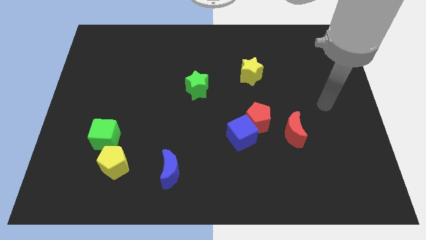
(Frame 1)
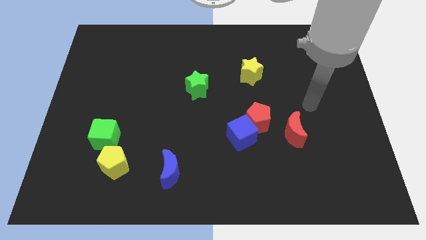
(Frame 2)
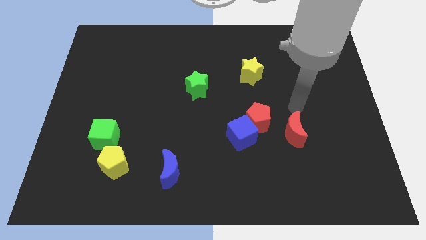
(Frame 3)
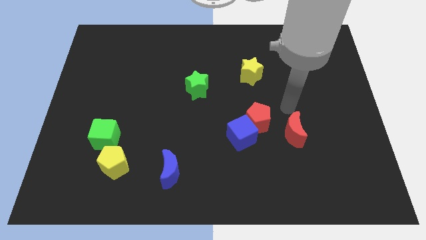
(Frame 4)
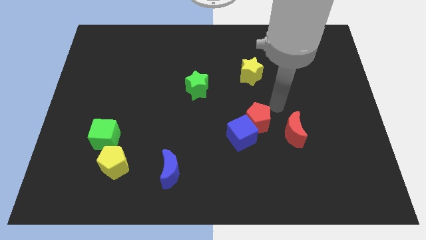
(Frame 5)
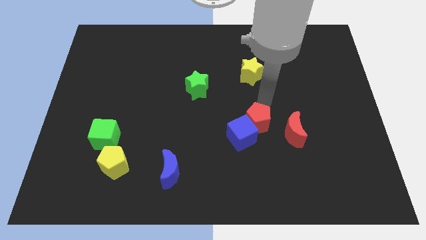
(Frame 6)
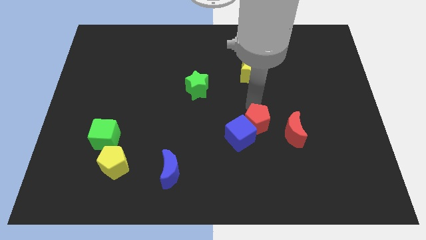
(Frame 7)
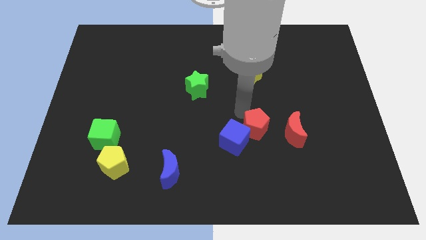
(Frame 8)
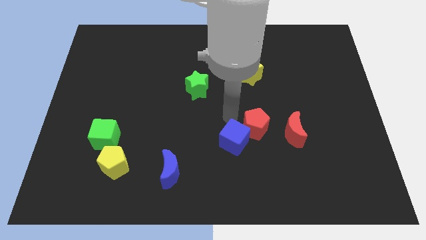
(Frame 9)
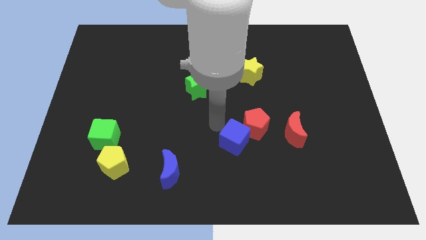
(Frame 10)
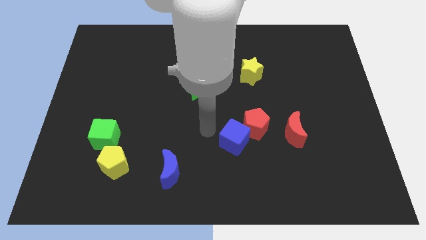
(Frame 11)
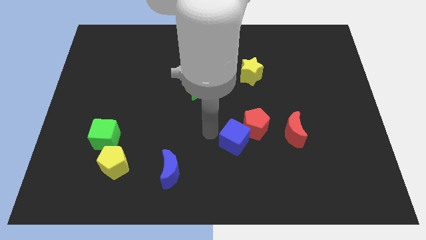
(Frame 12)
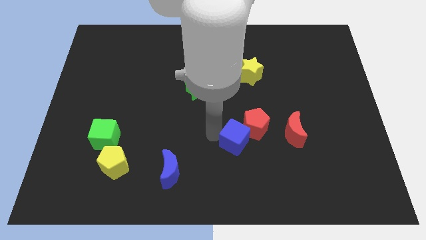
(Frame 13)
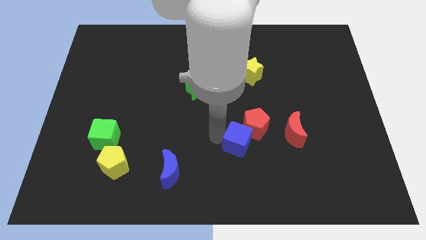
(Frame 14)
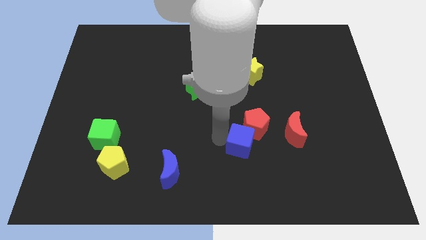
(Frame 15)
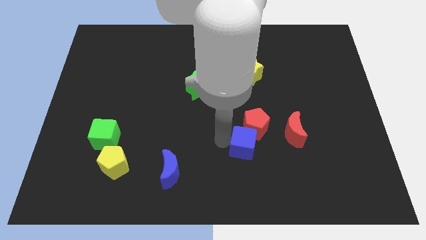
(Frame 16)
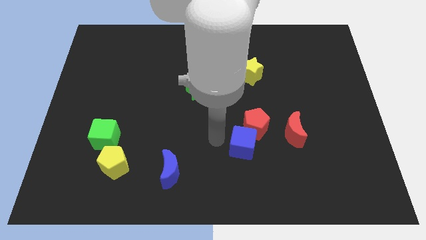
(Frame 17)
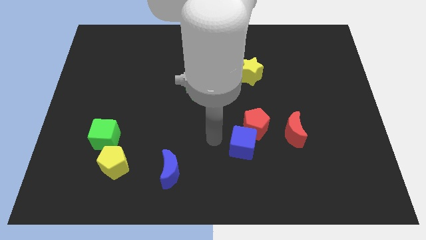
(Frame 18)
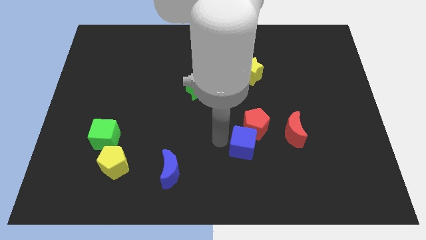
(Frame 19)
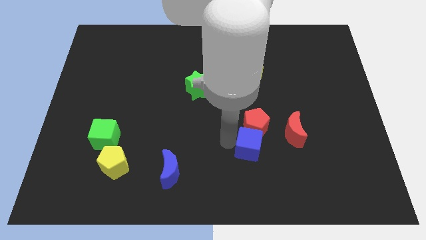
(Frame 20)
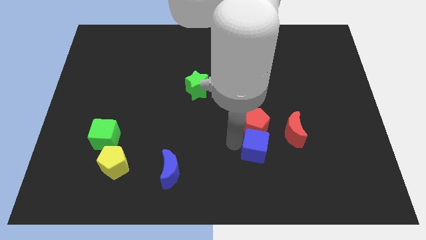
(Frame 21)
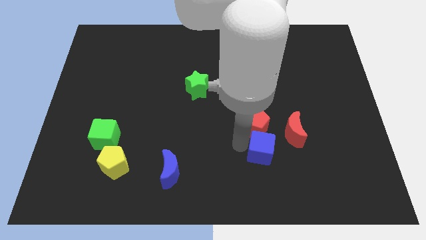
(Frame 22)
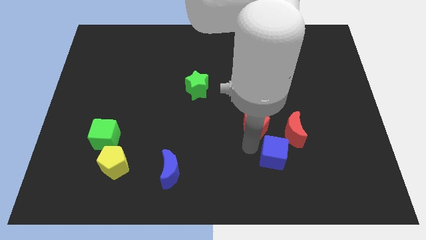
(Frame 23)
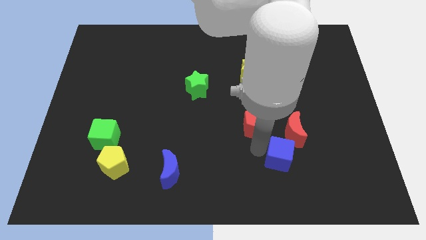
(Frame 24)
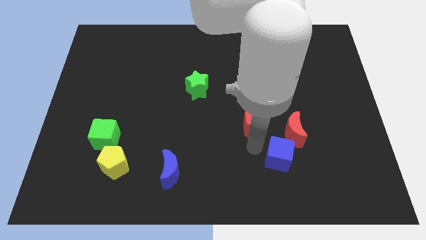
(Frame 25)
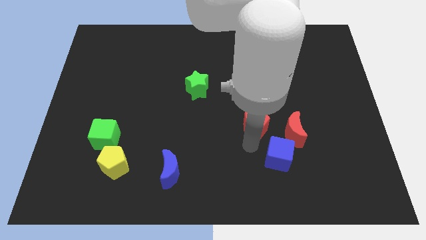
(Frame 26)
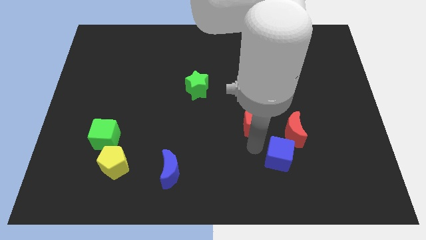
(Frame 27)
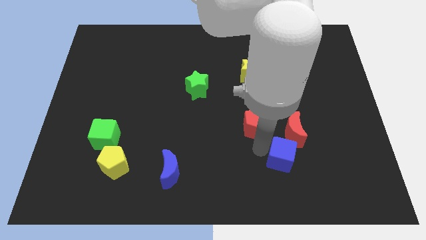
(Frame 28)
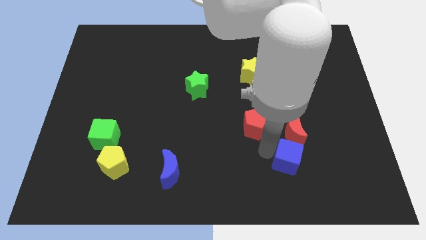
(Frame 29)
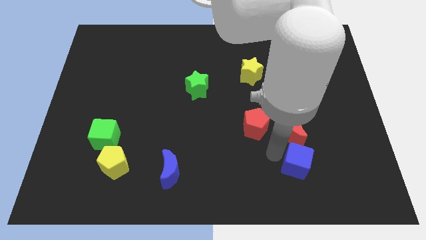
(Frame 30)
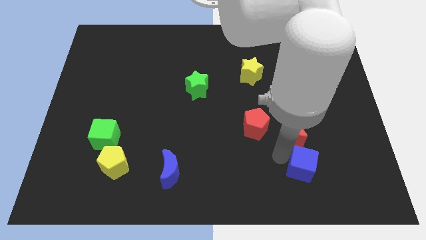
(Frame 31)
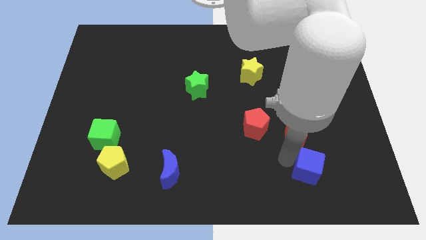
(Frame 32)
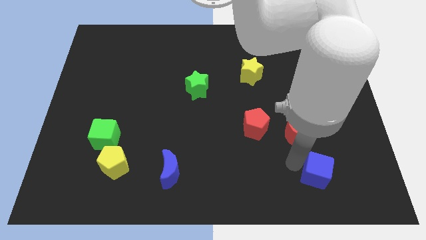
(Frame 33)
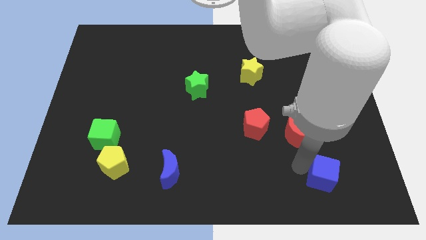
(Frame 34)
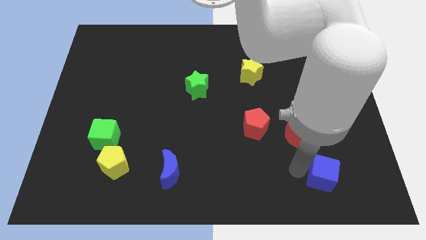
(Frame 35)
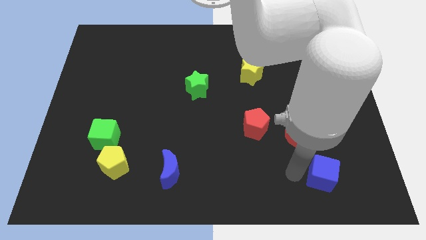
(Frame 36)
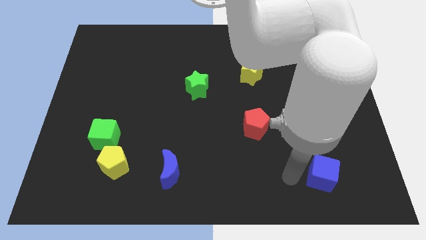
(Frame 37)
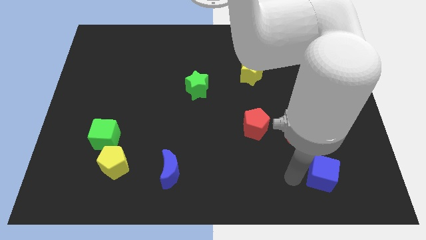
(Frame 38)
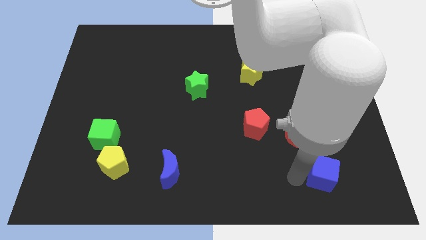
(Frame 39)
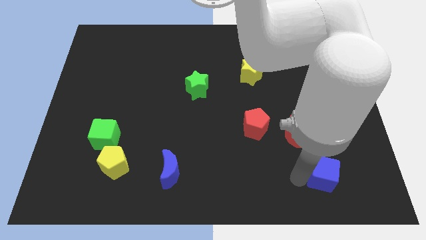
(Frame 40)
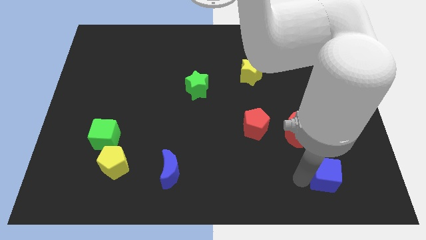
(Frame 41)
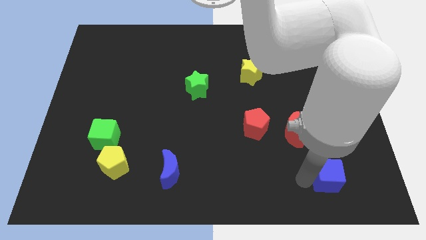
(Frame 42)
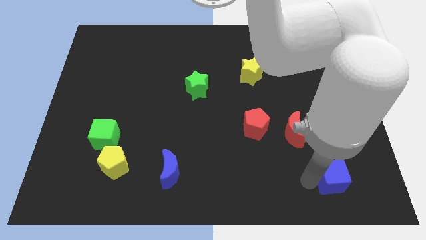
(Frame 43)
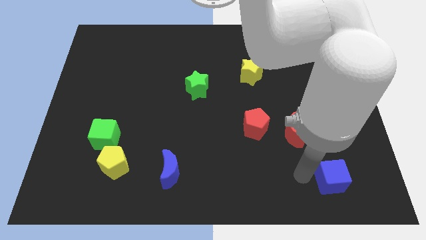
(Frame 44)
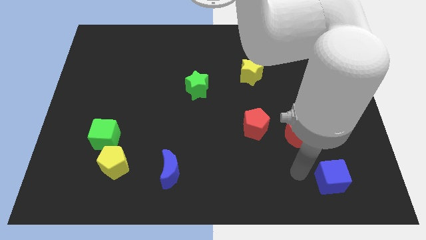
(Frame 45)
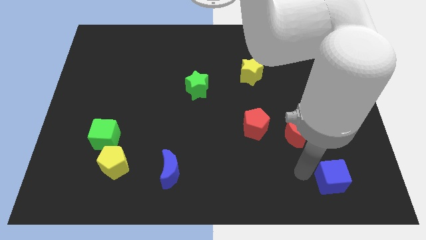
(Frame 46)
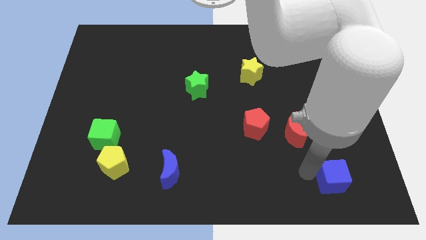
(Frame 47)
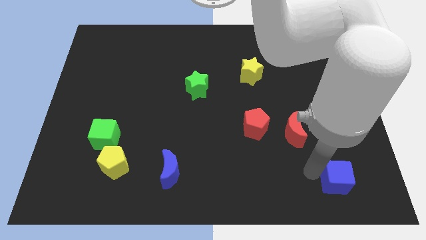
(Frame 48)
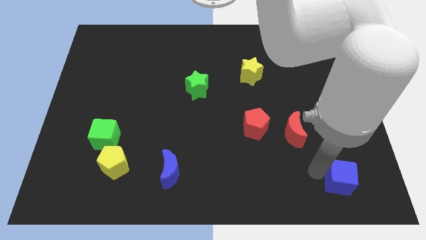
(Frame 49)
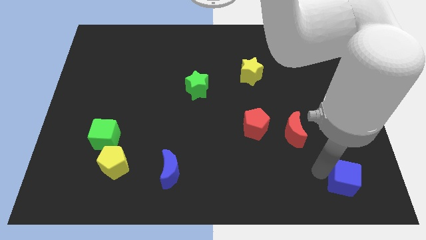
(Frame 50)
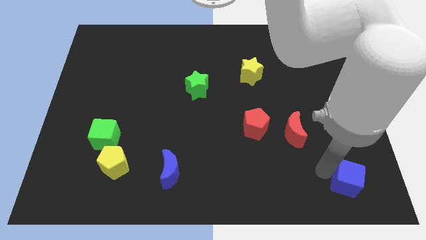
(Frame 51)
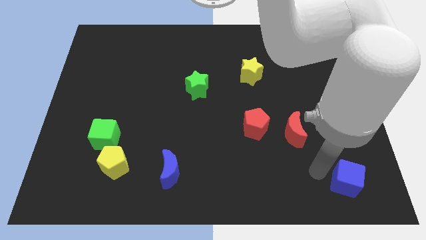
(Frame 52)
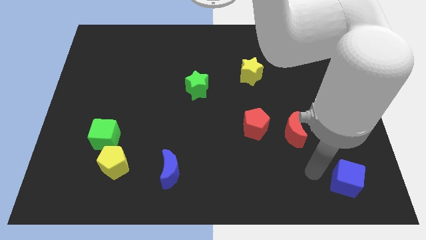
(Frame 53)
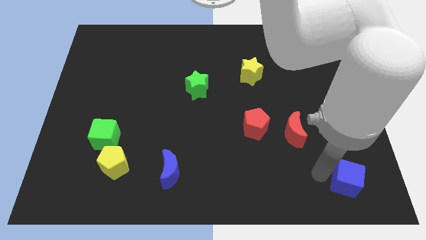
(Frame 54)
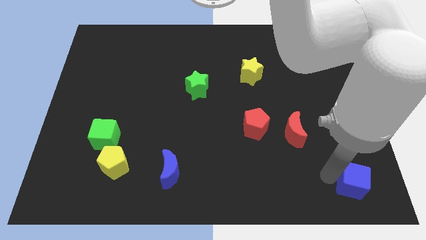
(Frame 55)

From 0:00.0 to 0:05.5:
push the blue cube to the bottom right corner

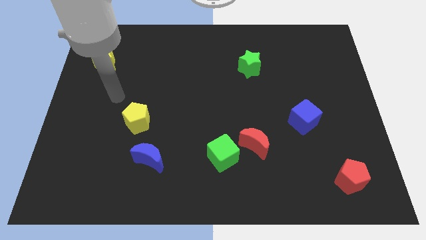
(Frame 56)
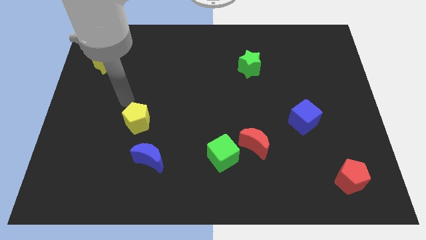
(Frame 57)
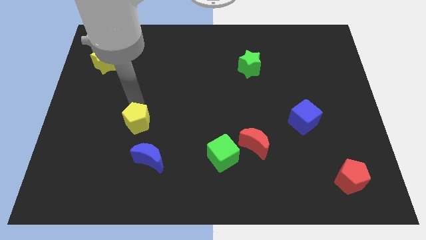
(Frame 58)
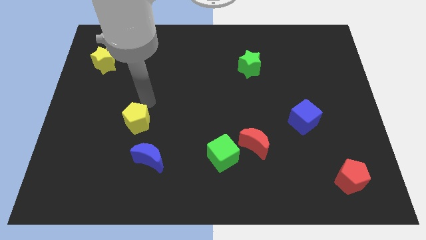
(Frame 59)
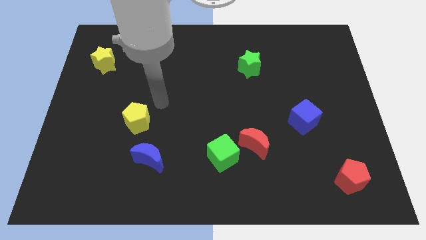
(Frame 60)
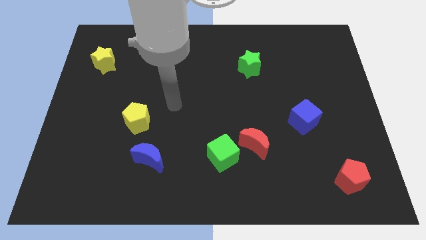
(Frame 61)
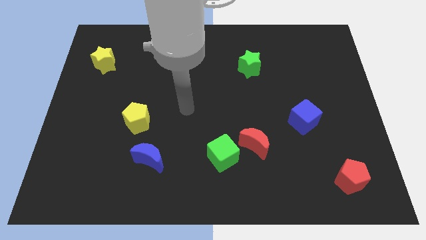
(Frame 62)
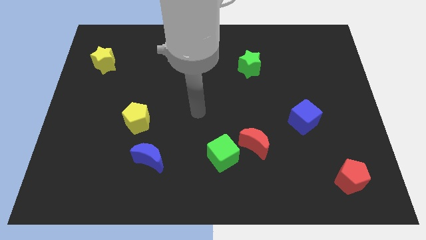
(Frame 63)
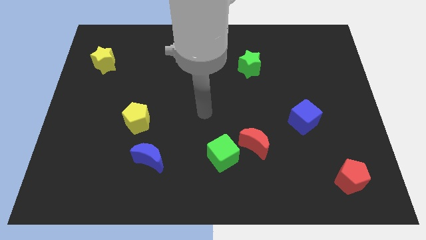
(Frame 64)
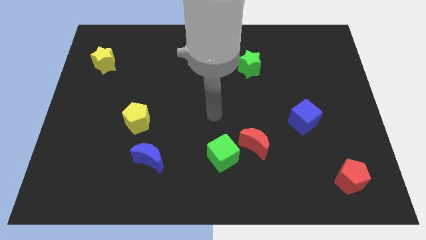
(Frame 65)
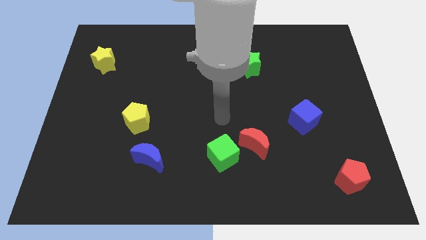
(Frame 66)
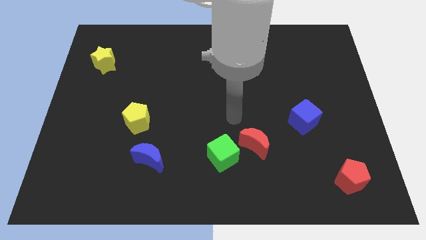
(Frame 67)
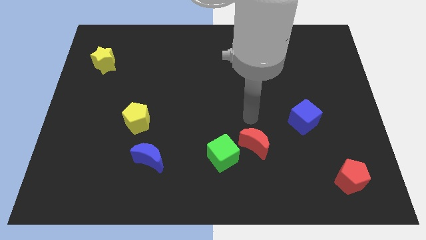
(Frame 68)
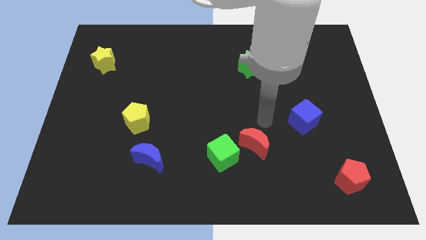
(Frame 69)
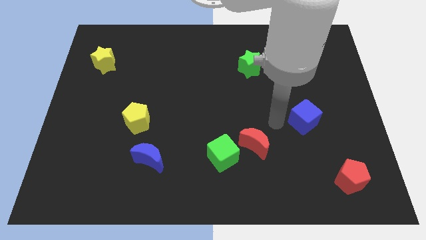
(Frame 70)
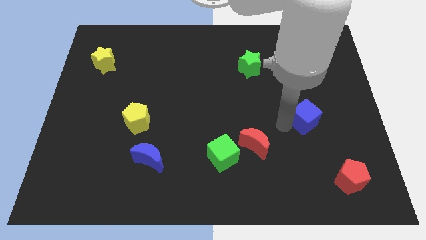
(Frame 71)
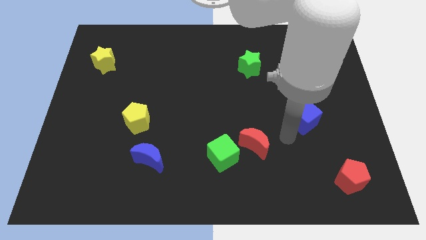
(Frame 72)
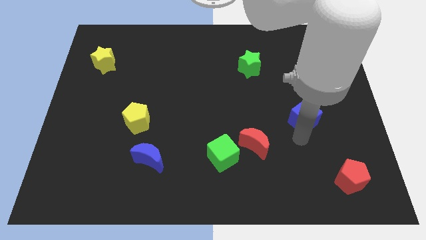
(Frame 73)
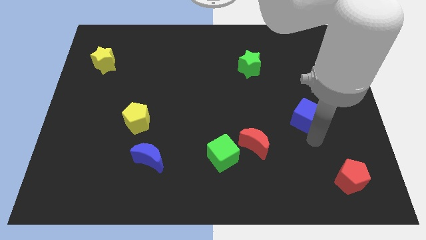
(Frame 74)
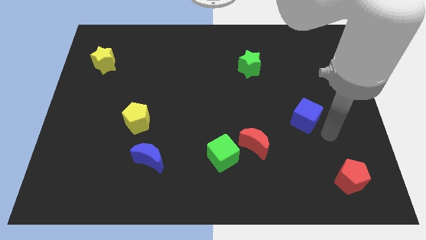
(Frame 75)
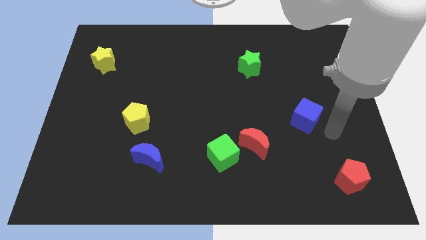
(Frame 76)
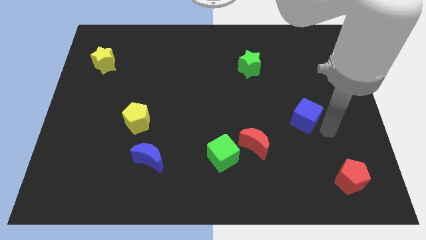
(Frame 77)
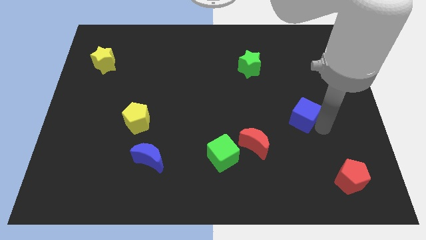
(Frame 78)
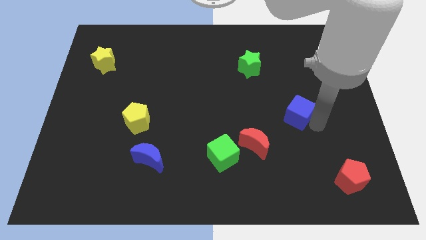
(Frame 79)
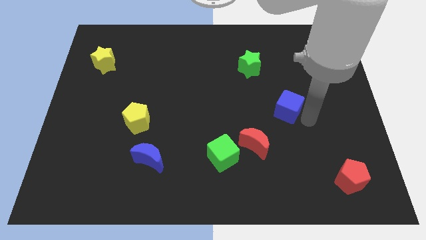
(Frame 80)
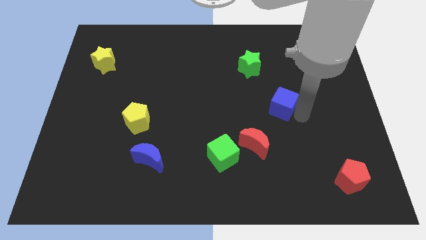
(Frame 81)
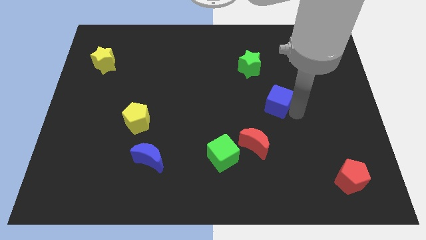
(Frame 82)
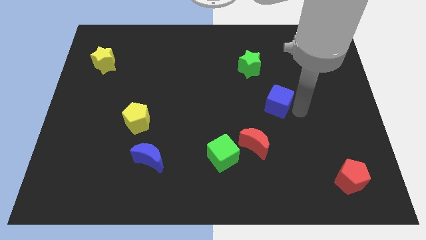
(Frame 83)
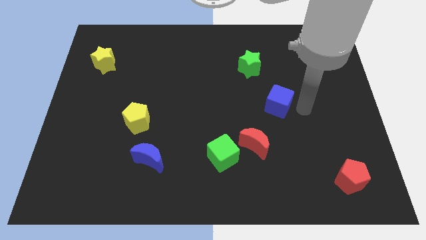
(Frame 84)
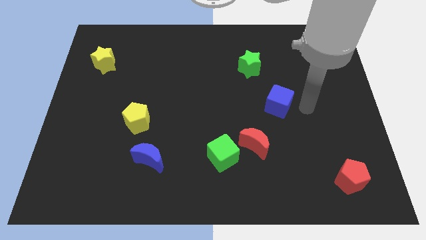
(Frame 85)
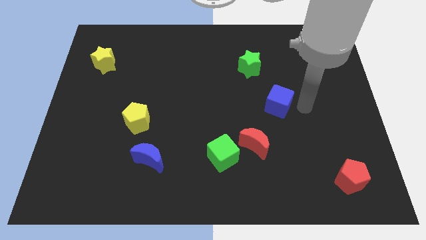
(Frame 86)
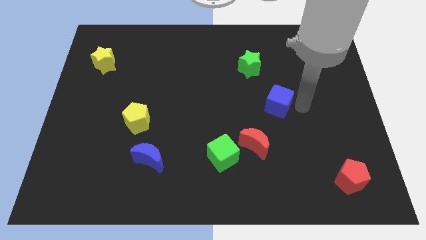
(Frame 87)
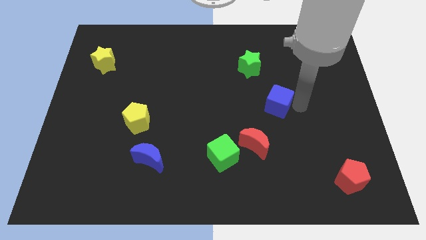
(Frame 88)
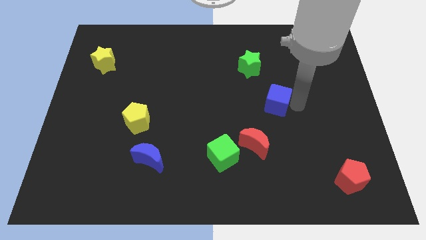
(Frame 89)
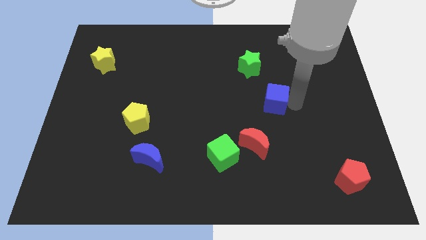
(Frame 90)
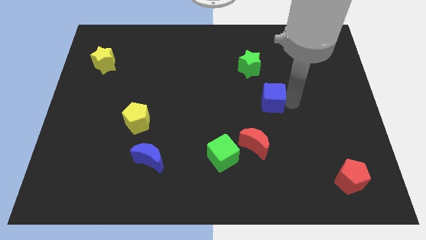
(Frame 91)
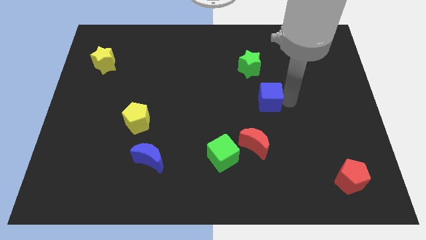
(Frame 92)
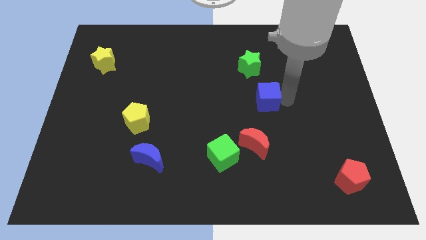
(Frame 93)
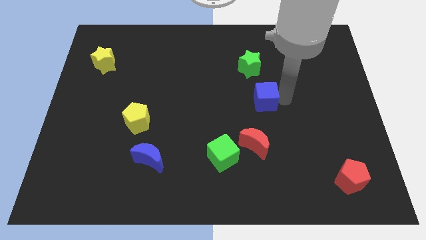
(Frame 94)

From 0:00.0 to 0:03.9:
slide the blue cube to the center of the board
